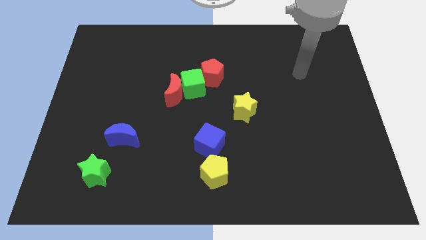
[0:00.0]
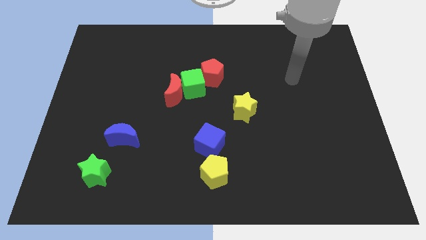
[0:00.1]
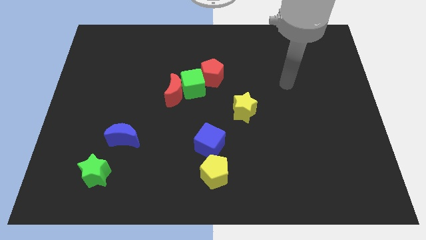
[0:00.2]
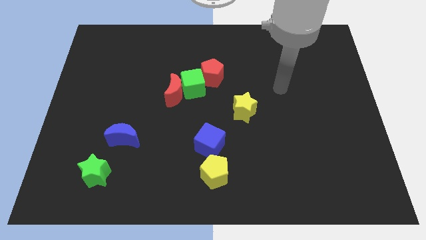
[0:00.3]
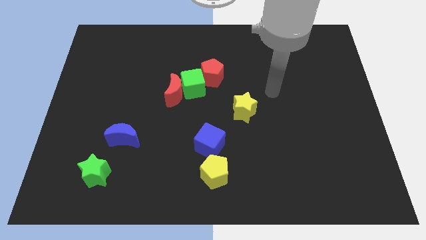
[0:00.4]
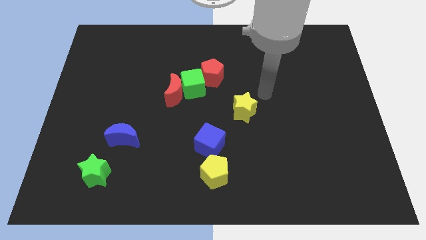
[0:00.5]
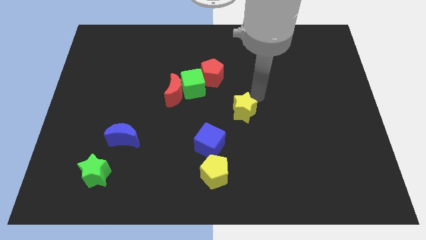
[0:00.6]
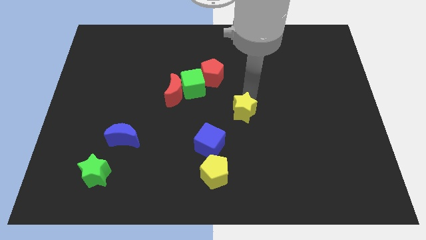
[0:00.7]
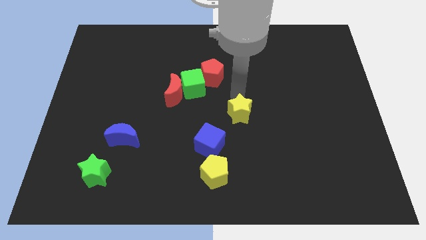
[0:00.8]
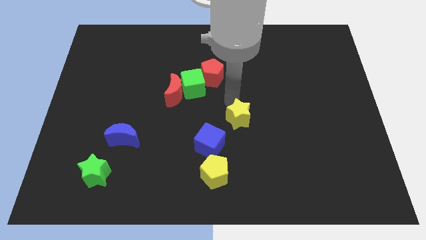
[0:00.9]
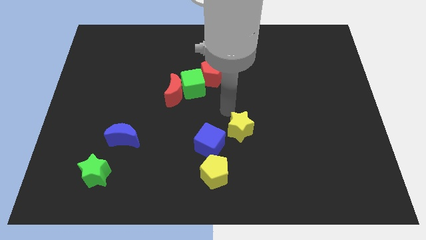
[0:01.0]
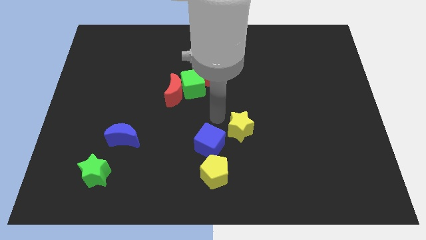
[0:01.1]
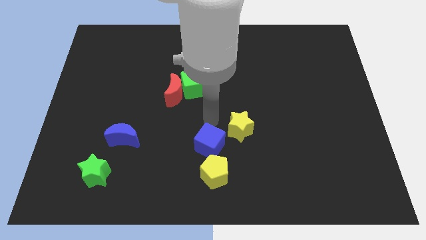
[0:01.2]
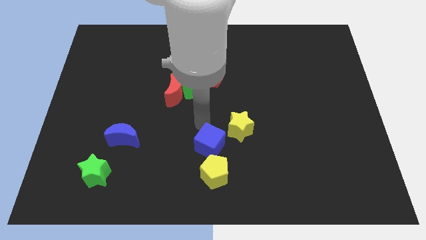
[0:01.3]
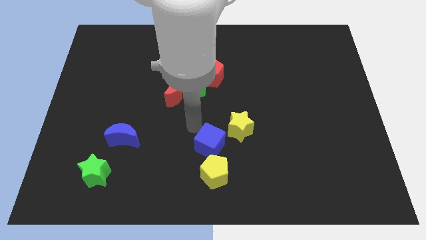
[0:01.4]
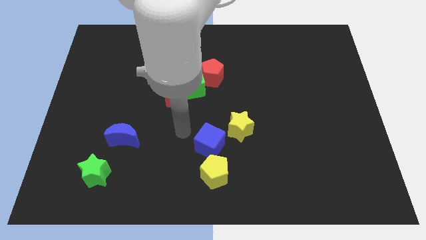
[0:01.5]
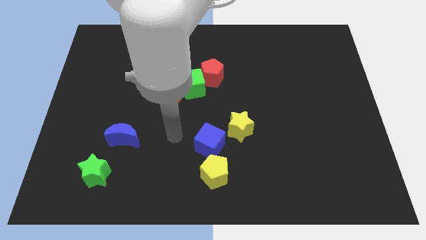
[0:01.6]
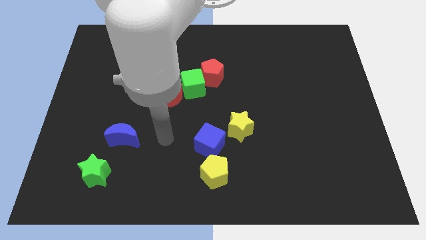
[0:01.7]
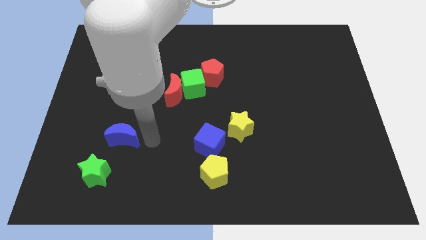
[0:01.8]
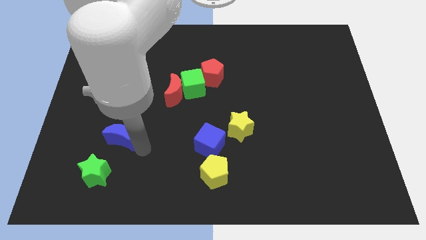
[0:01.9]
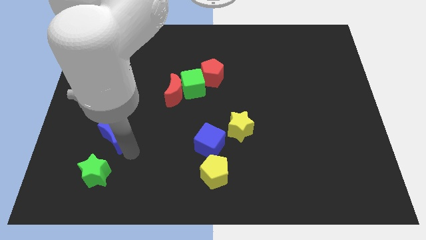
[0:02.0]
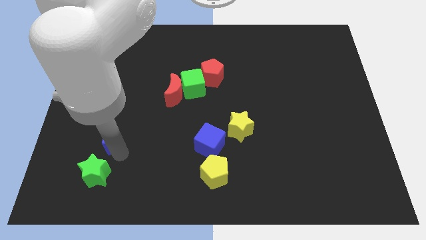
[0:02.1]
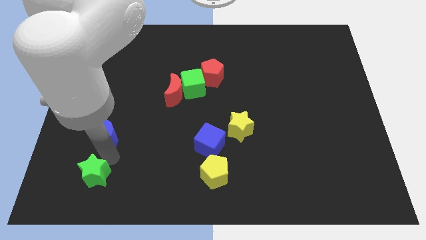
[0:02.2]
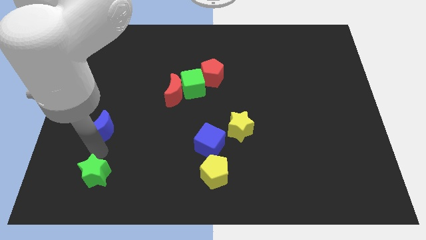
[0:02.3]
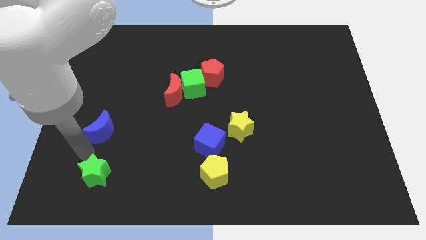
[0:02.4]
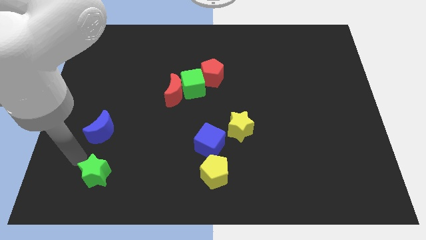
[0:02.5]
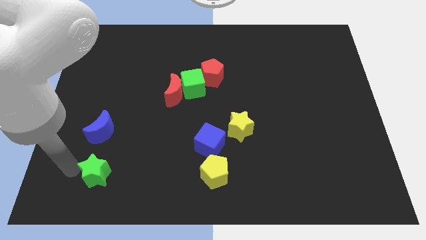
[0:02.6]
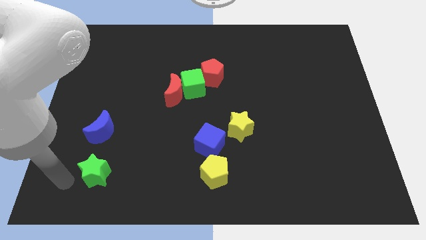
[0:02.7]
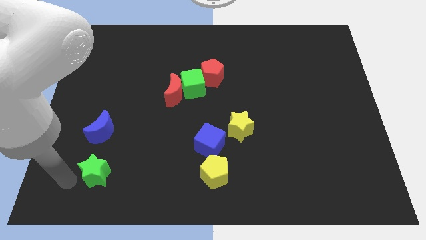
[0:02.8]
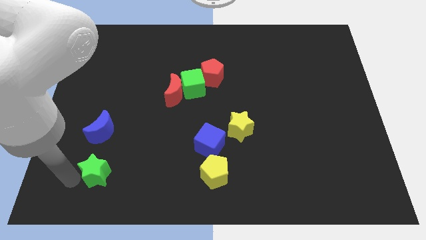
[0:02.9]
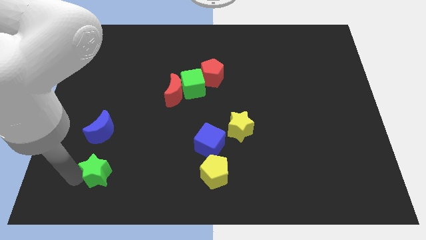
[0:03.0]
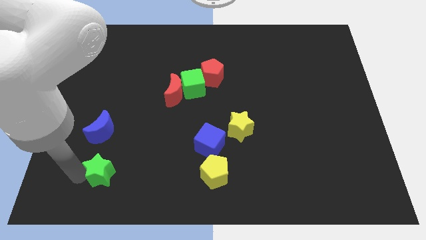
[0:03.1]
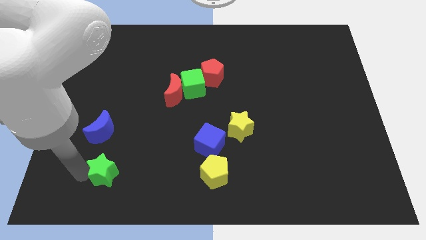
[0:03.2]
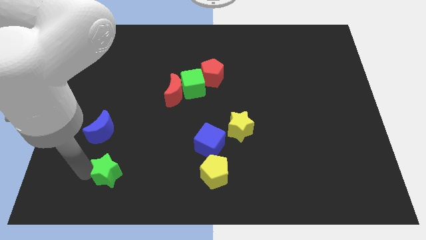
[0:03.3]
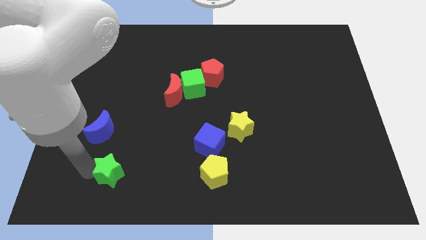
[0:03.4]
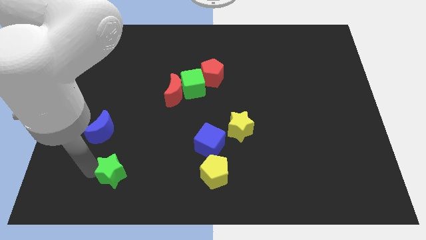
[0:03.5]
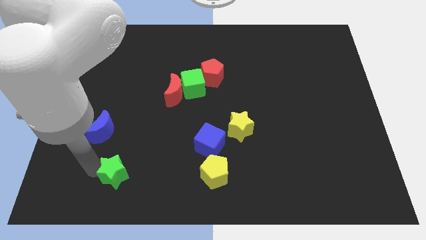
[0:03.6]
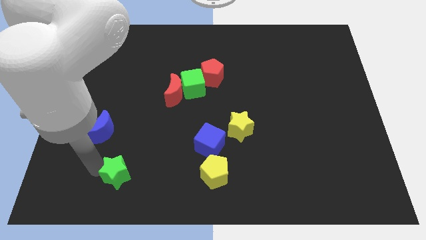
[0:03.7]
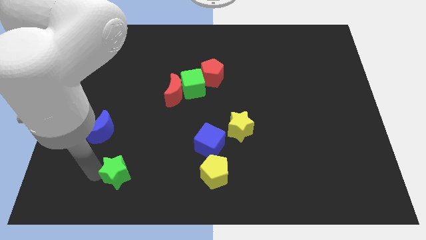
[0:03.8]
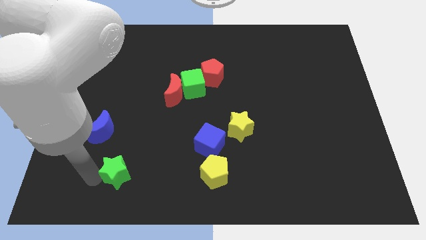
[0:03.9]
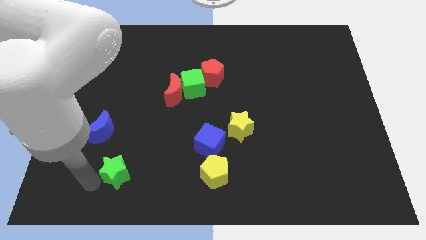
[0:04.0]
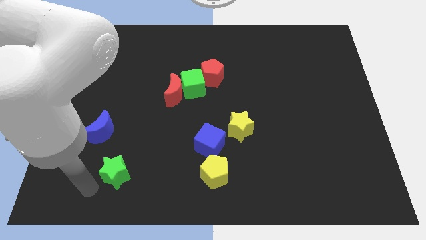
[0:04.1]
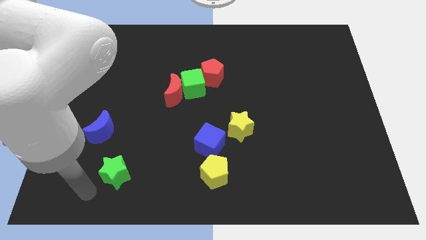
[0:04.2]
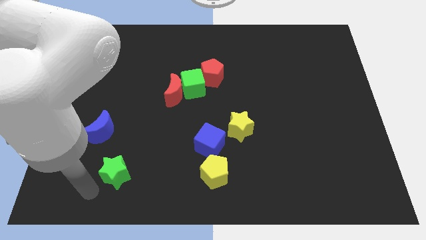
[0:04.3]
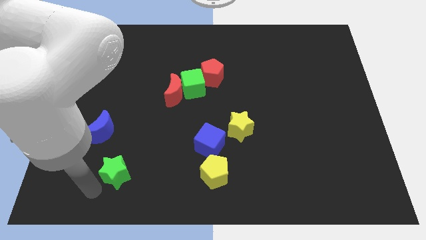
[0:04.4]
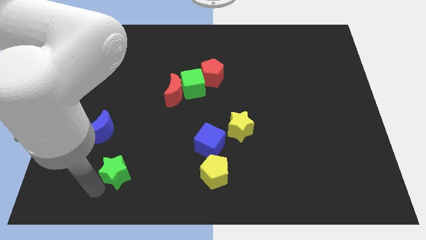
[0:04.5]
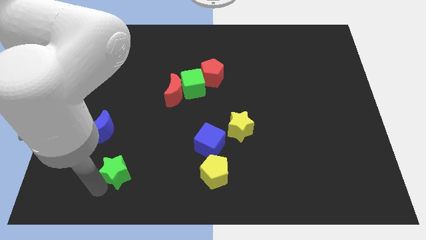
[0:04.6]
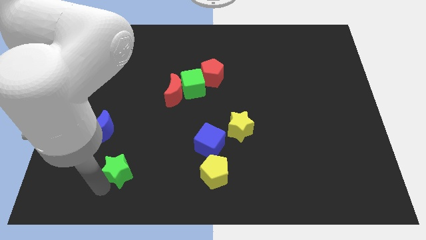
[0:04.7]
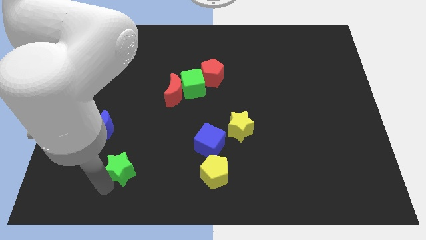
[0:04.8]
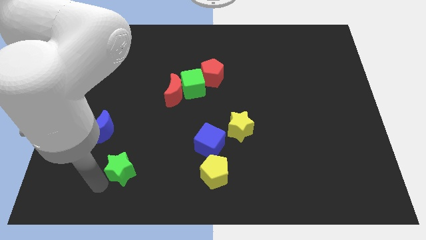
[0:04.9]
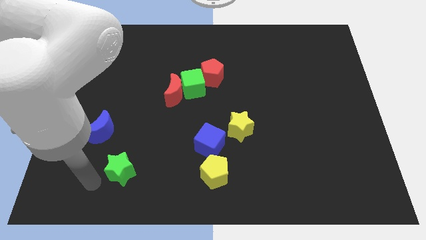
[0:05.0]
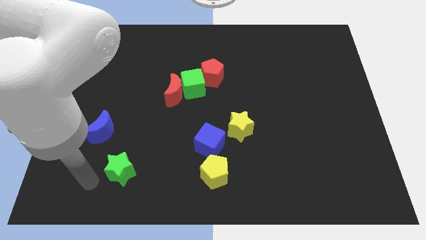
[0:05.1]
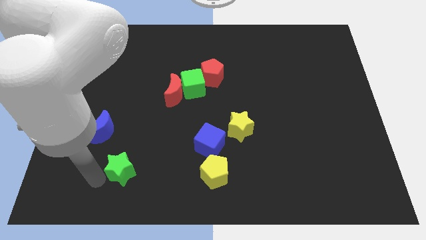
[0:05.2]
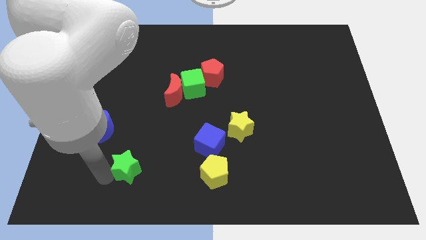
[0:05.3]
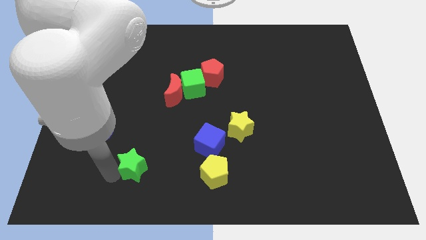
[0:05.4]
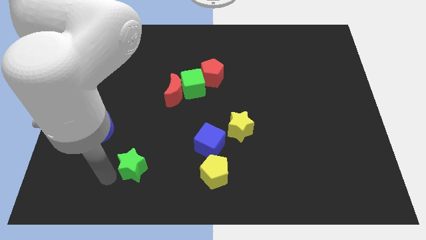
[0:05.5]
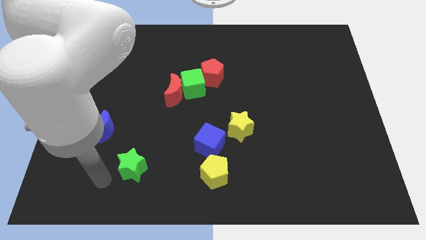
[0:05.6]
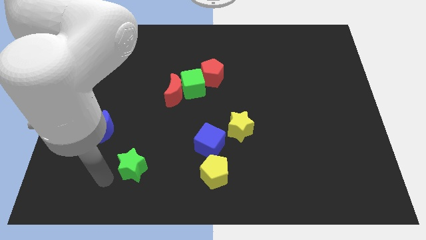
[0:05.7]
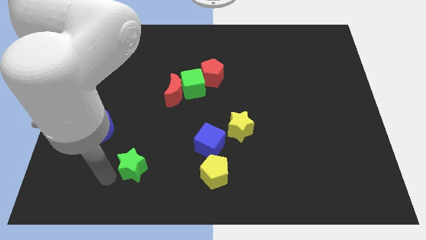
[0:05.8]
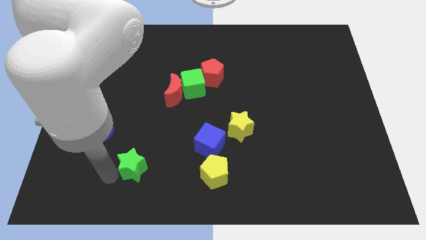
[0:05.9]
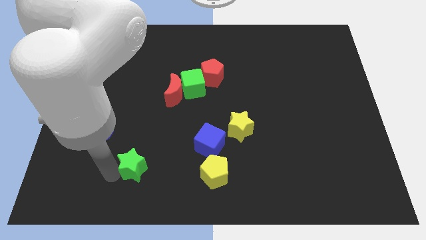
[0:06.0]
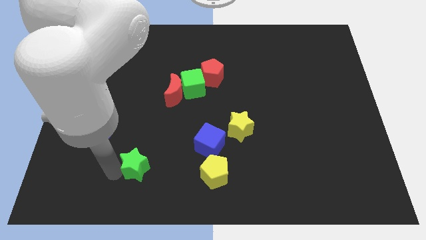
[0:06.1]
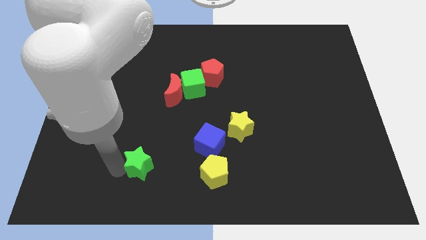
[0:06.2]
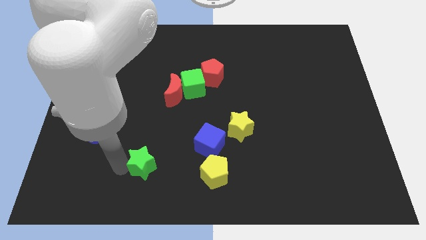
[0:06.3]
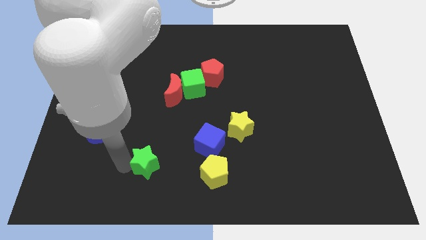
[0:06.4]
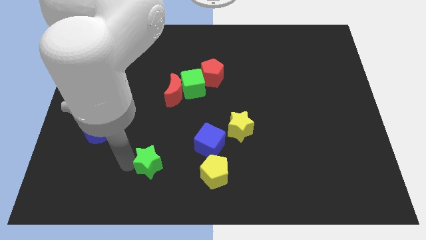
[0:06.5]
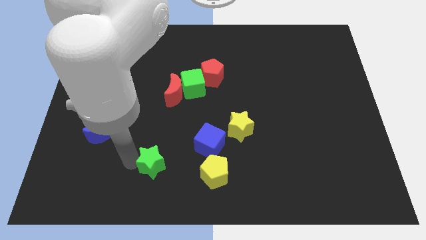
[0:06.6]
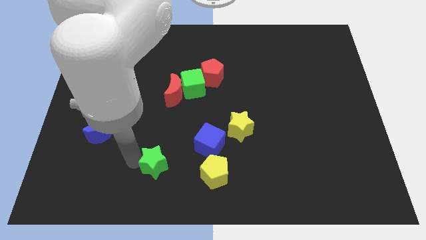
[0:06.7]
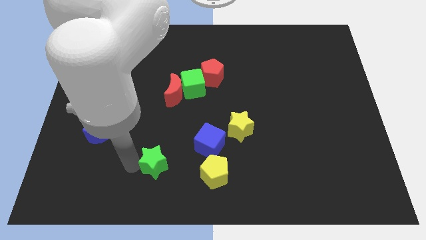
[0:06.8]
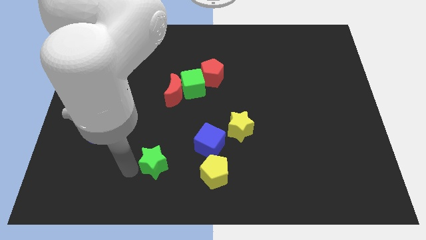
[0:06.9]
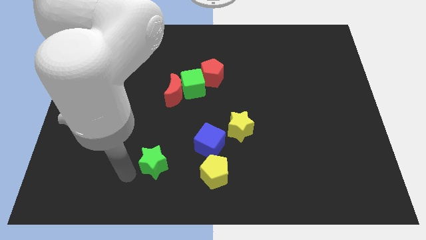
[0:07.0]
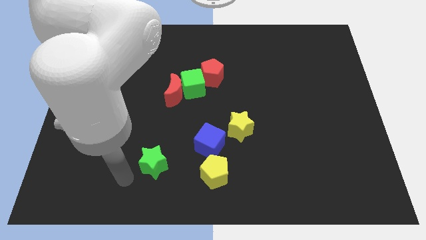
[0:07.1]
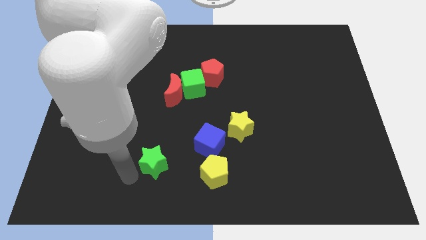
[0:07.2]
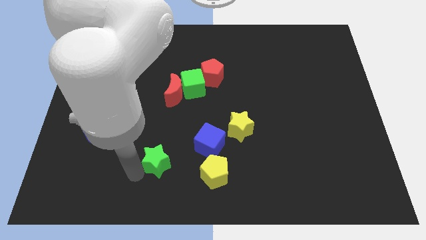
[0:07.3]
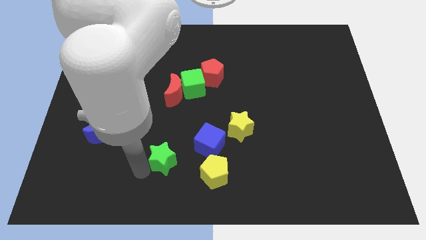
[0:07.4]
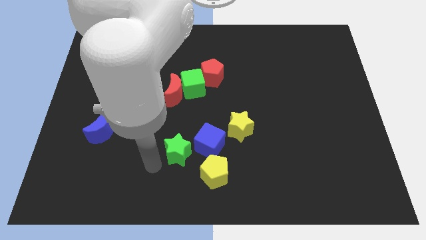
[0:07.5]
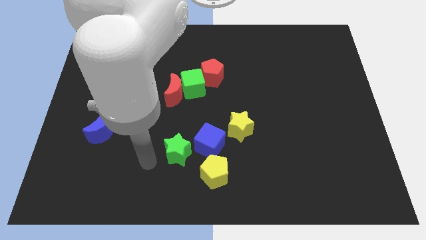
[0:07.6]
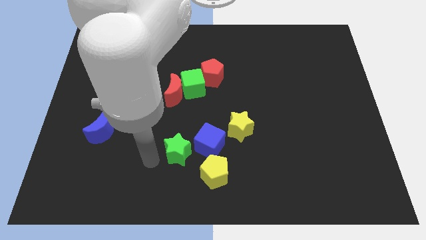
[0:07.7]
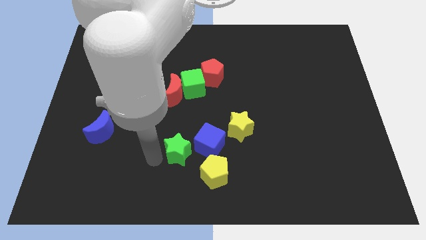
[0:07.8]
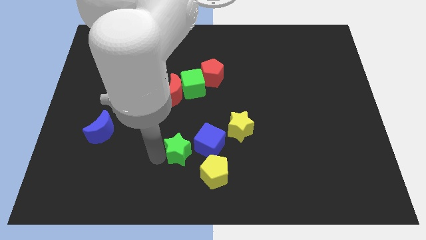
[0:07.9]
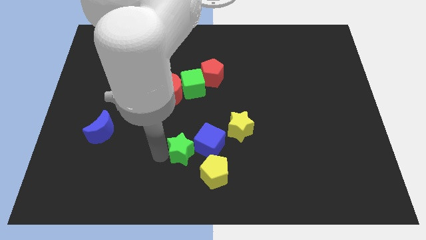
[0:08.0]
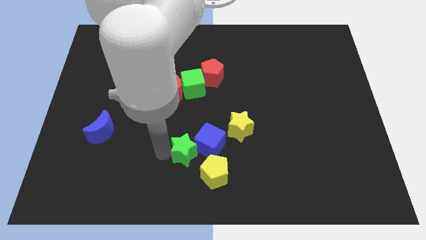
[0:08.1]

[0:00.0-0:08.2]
slide the green star to the blue cube
